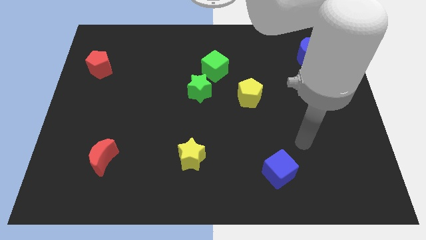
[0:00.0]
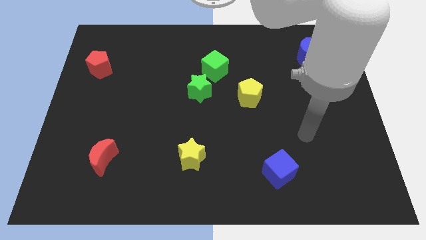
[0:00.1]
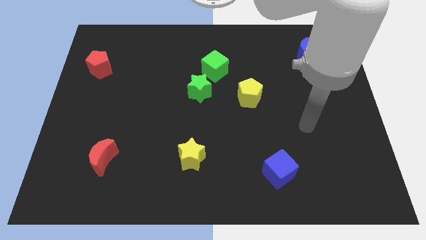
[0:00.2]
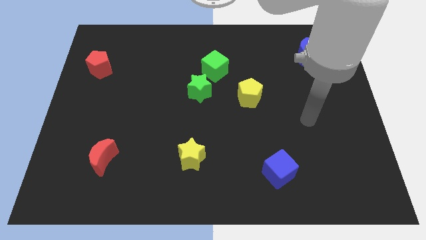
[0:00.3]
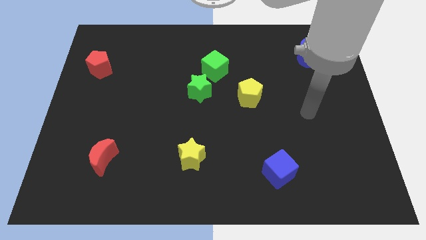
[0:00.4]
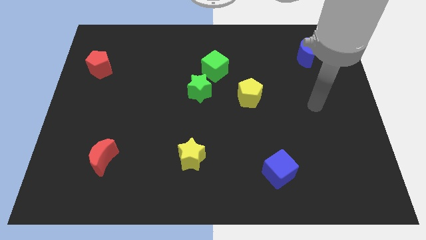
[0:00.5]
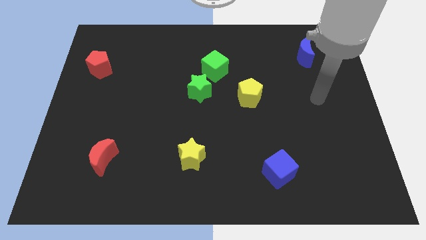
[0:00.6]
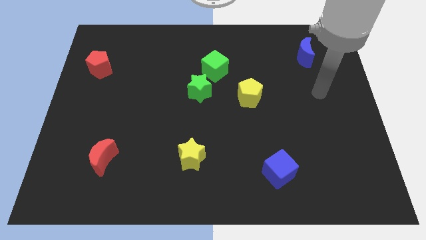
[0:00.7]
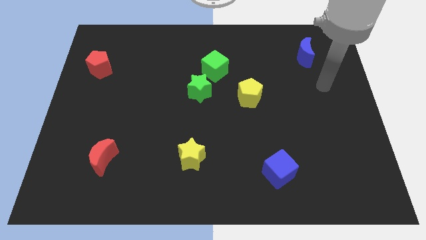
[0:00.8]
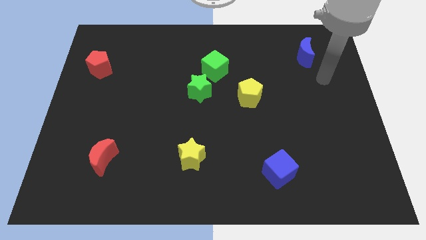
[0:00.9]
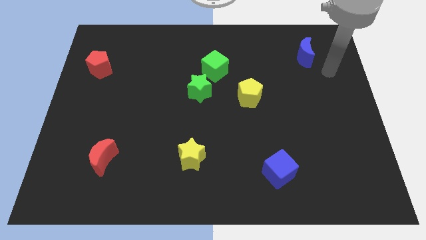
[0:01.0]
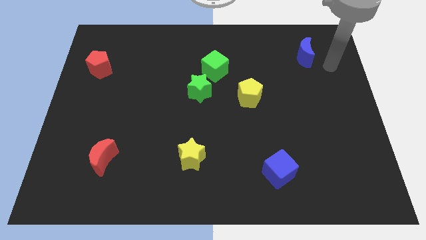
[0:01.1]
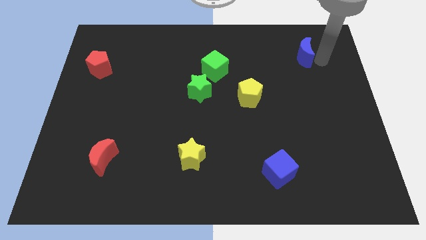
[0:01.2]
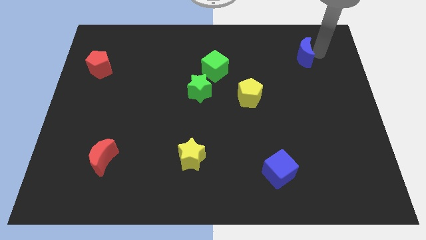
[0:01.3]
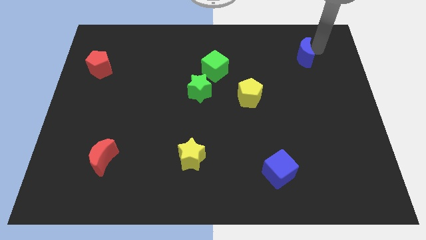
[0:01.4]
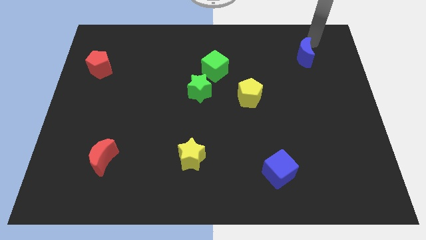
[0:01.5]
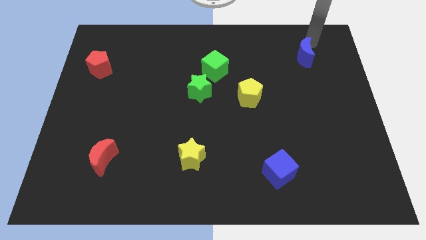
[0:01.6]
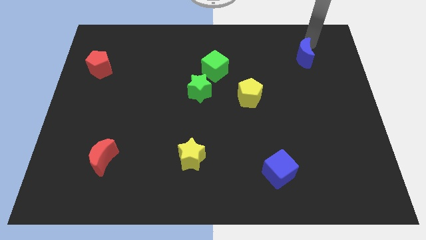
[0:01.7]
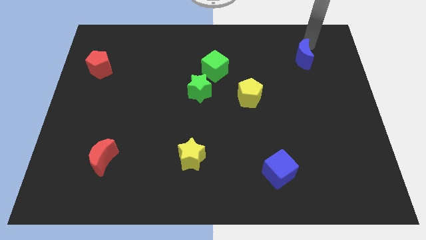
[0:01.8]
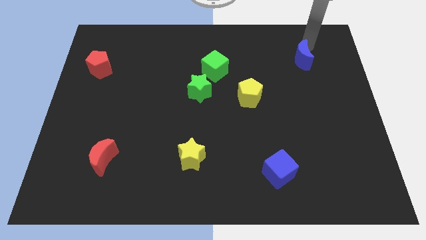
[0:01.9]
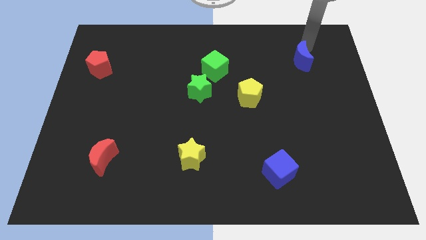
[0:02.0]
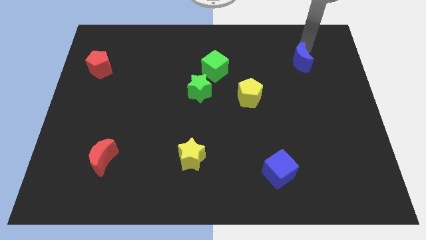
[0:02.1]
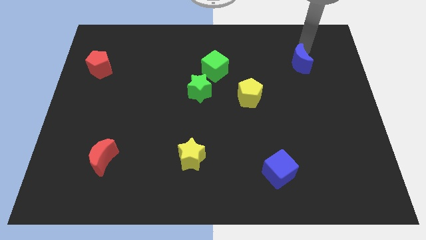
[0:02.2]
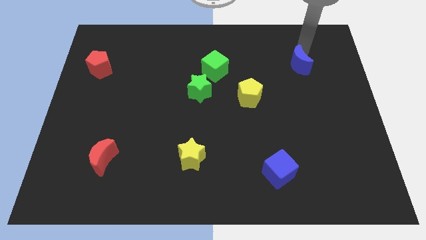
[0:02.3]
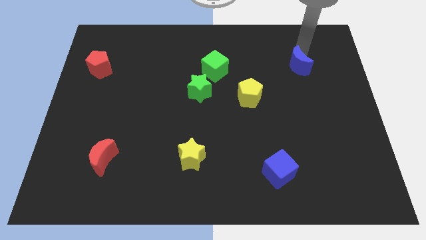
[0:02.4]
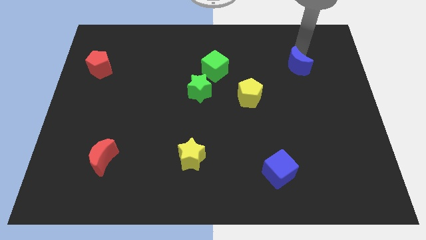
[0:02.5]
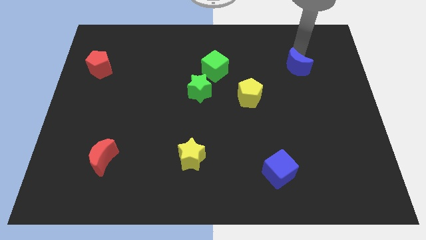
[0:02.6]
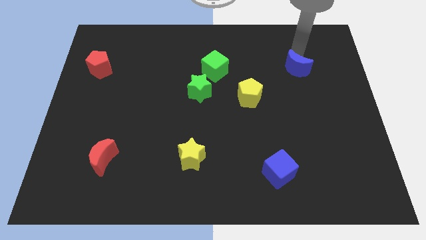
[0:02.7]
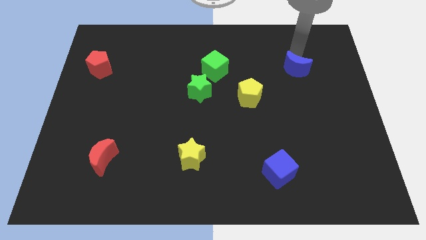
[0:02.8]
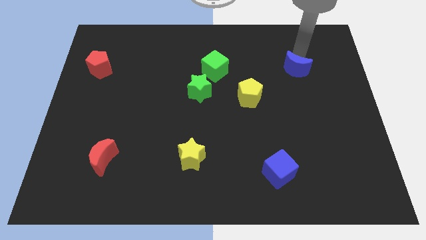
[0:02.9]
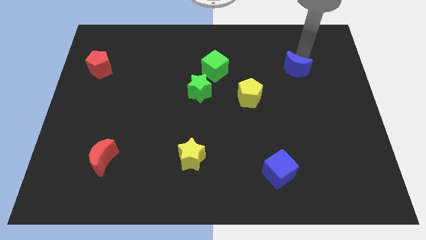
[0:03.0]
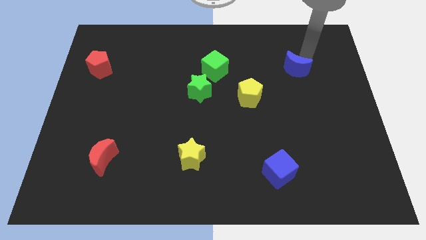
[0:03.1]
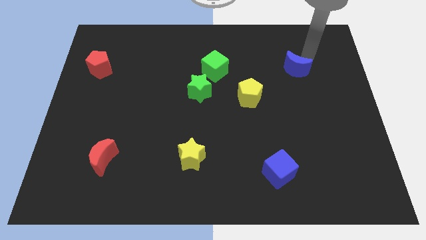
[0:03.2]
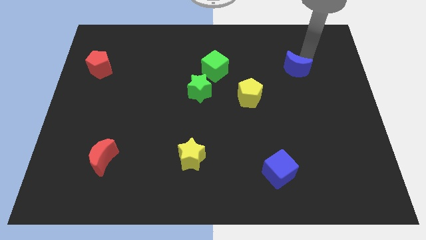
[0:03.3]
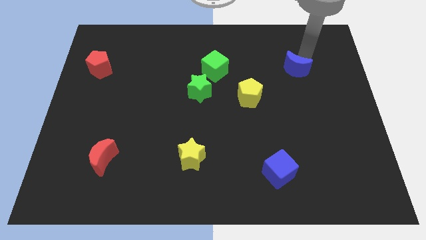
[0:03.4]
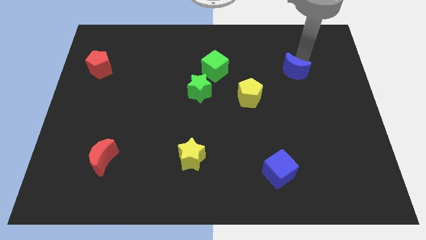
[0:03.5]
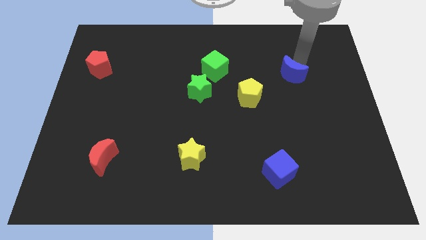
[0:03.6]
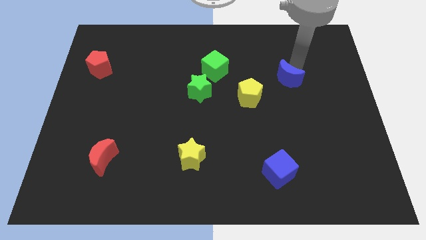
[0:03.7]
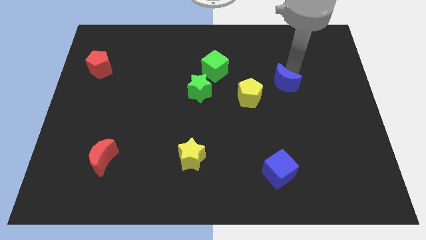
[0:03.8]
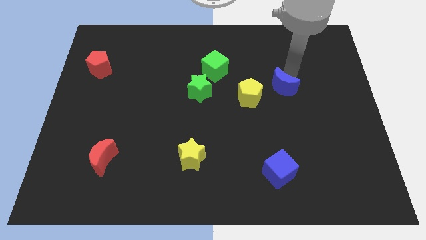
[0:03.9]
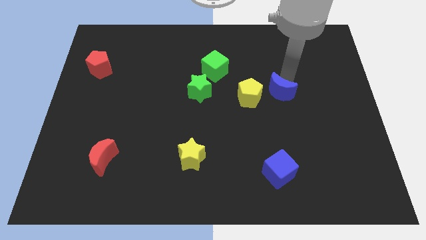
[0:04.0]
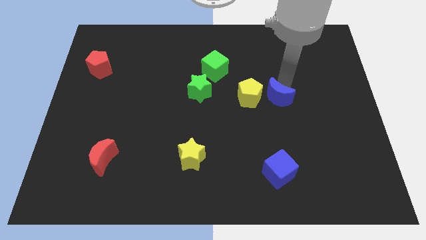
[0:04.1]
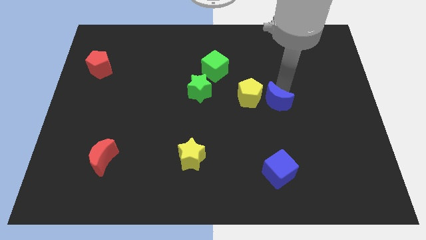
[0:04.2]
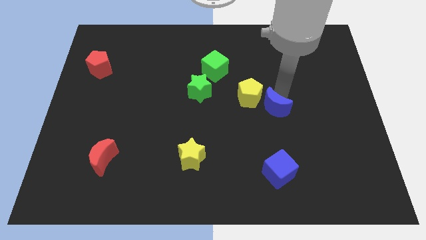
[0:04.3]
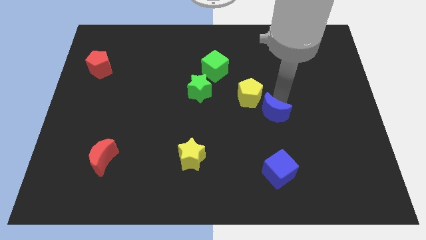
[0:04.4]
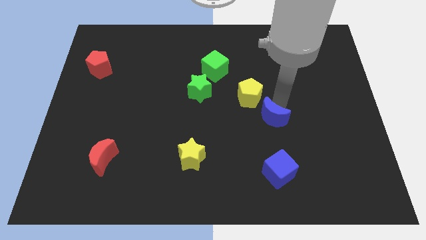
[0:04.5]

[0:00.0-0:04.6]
push the blue moon downwards and to the left diagonally

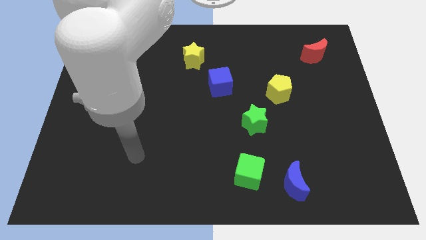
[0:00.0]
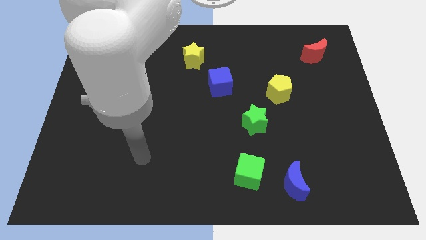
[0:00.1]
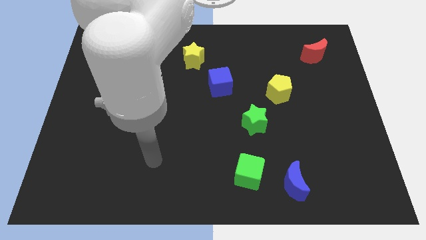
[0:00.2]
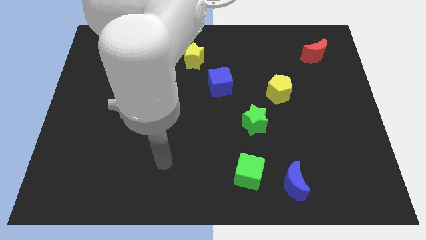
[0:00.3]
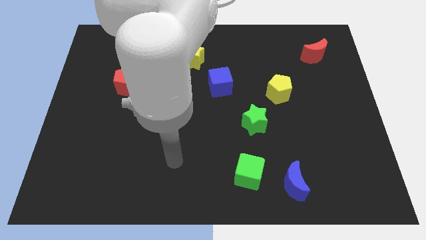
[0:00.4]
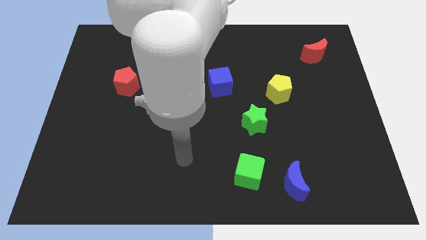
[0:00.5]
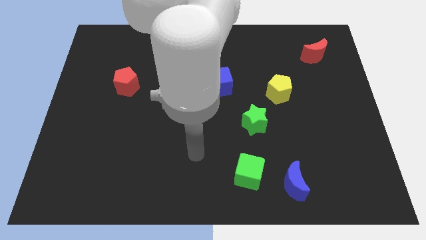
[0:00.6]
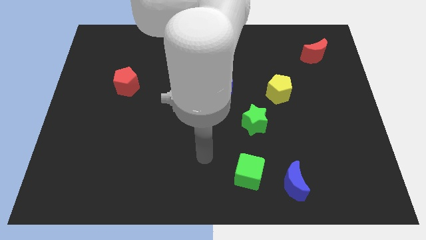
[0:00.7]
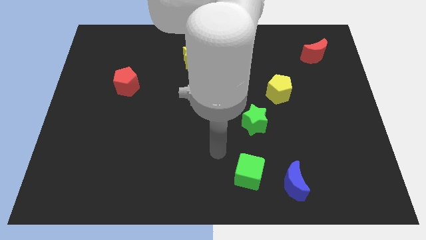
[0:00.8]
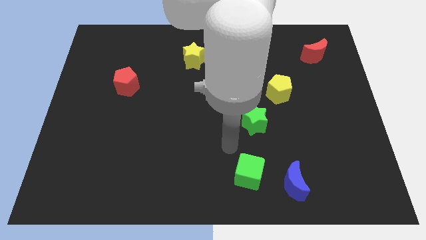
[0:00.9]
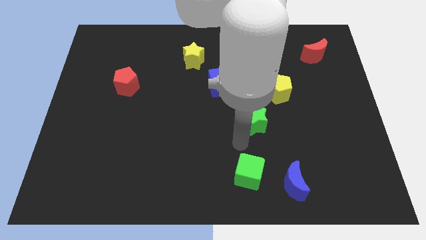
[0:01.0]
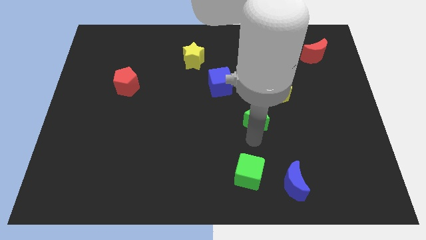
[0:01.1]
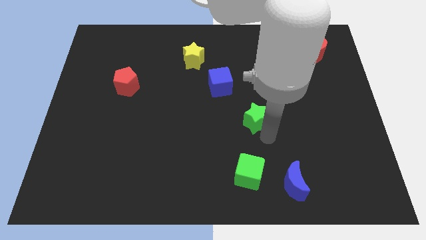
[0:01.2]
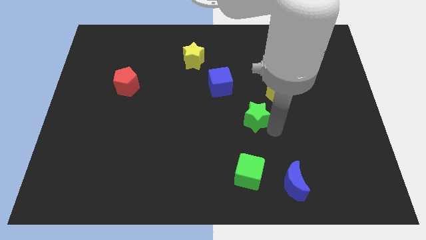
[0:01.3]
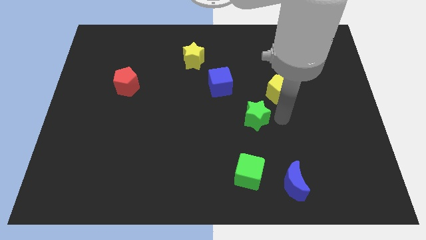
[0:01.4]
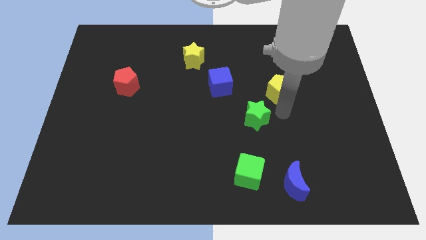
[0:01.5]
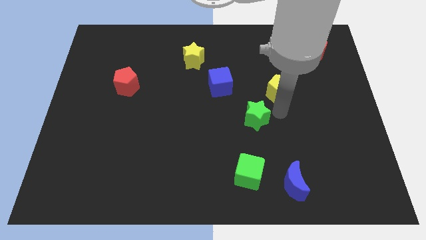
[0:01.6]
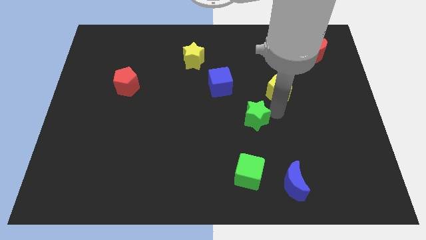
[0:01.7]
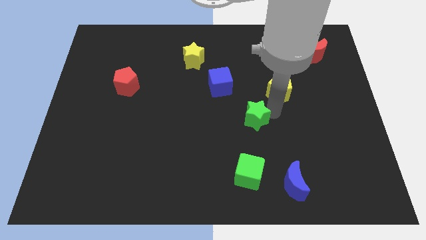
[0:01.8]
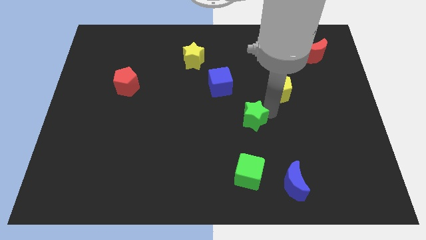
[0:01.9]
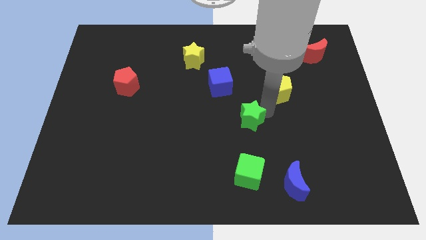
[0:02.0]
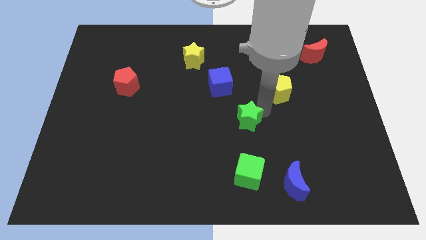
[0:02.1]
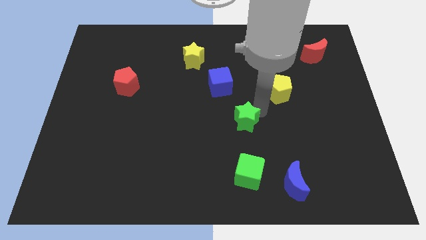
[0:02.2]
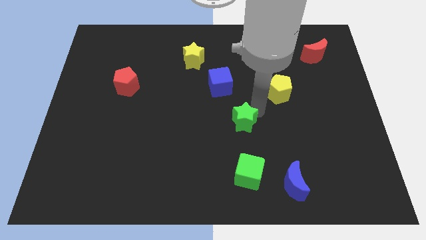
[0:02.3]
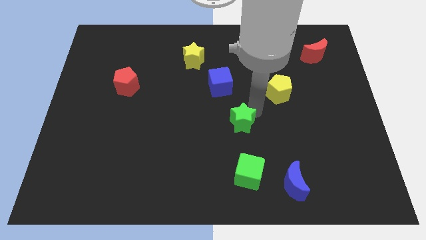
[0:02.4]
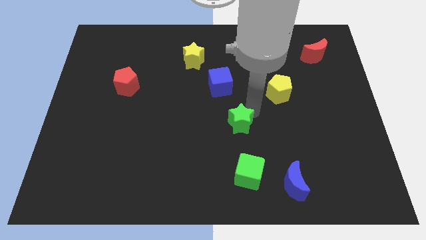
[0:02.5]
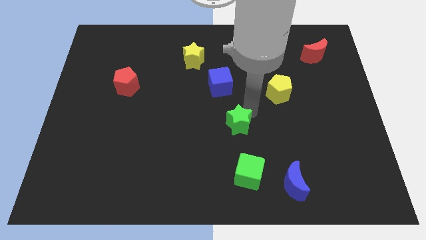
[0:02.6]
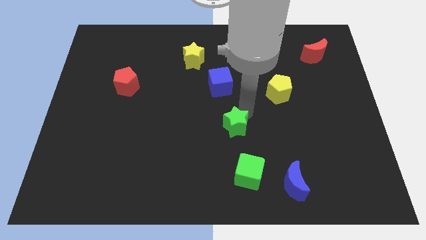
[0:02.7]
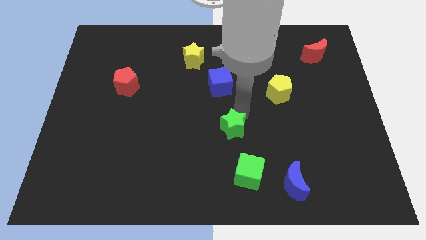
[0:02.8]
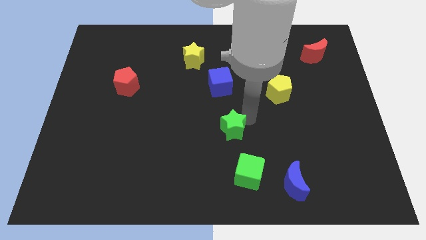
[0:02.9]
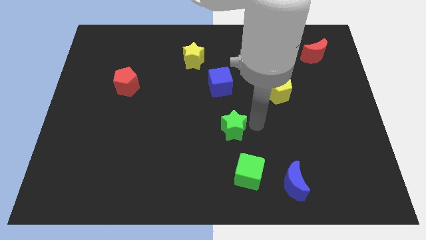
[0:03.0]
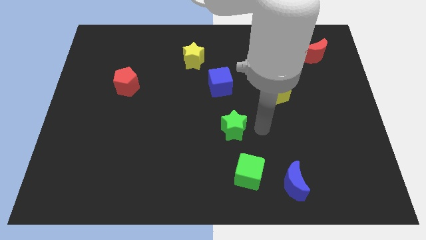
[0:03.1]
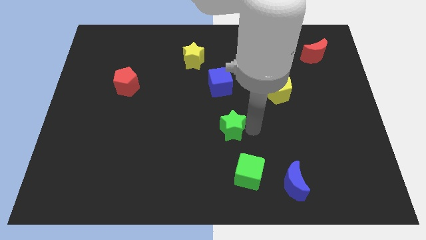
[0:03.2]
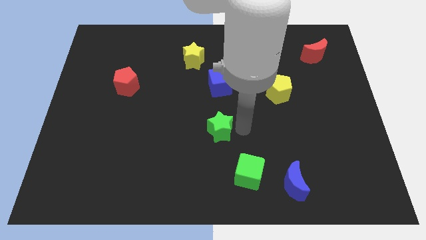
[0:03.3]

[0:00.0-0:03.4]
slide the green star to the left a little bit

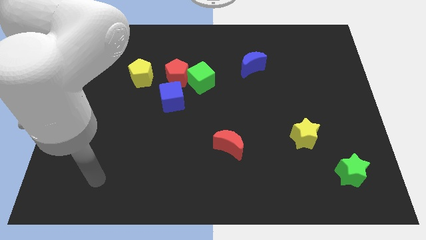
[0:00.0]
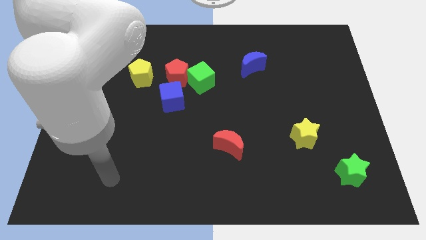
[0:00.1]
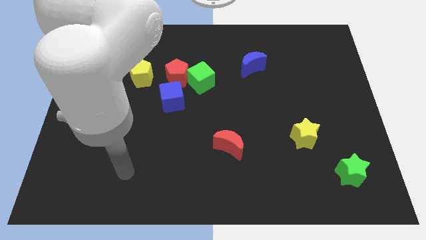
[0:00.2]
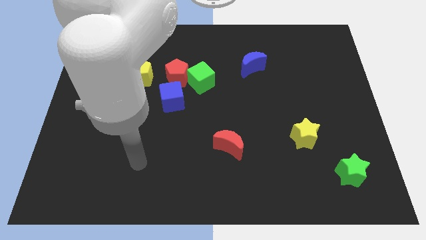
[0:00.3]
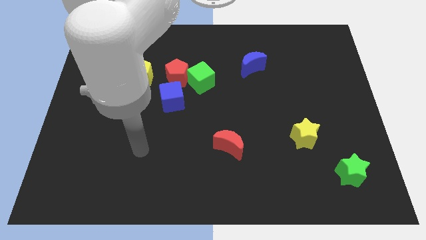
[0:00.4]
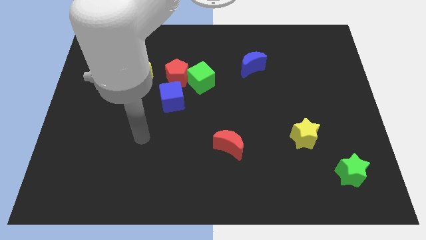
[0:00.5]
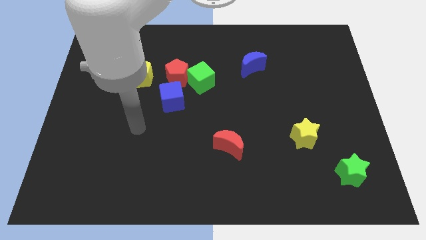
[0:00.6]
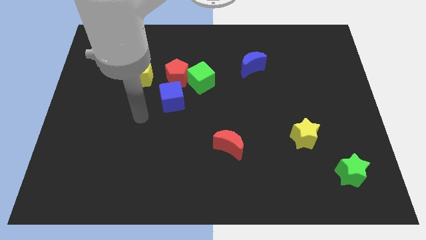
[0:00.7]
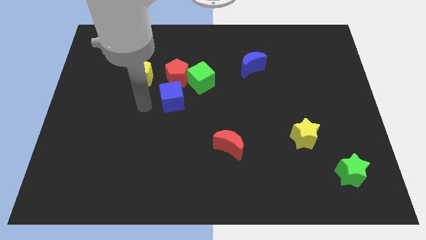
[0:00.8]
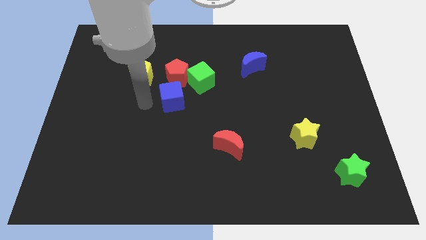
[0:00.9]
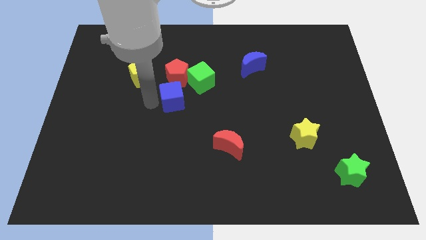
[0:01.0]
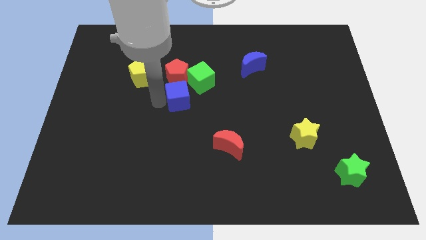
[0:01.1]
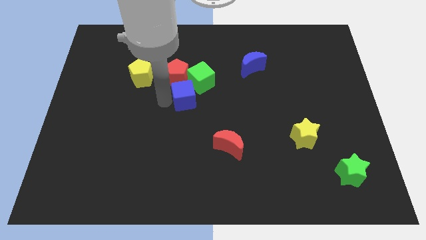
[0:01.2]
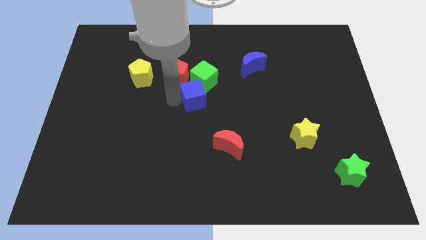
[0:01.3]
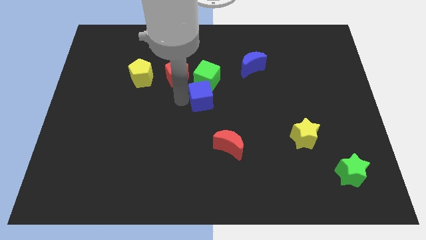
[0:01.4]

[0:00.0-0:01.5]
slide the blue cube to the right a little
